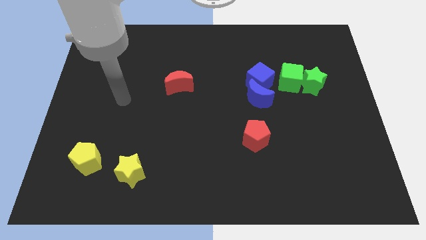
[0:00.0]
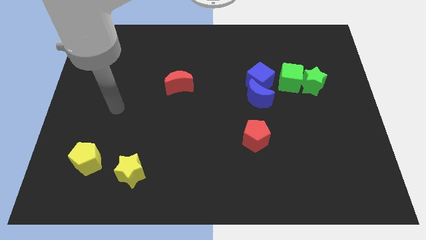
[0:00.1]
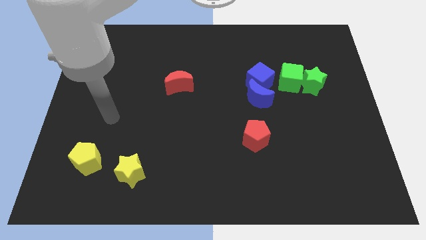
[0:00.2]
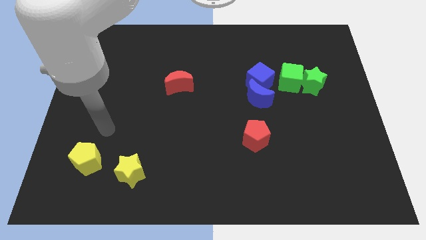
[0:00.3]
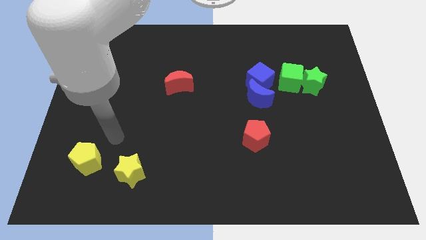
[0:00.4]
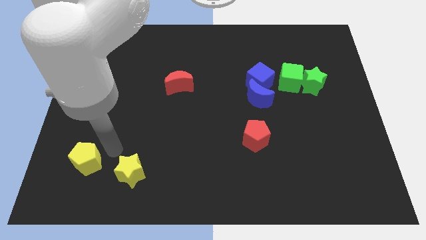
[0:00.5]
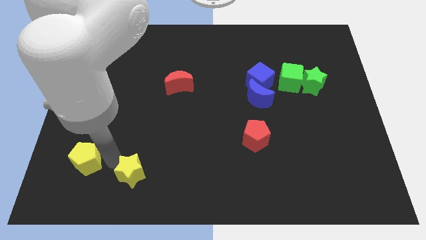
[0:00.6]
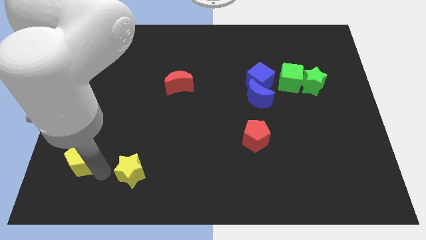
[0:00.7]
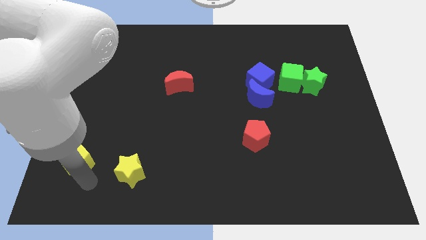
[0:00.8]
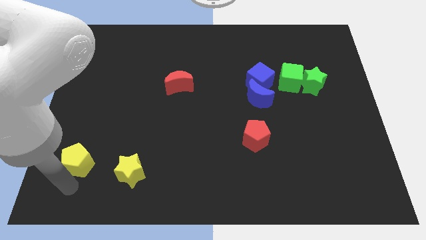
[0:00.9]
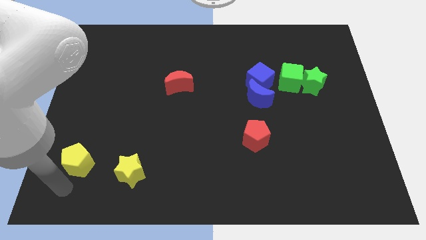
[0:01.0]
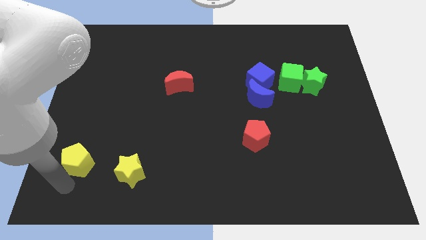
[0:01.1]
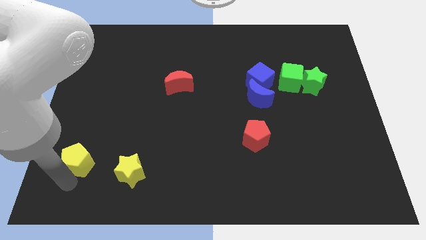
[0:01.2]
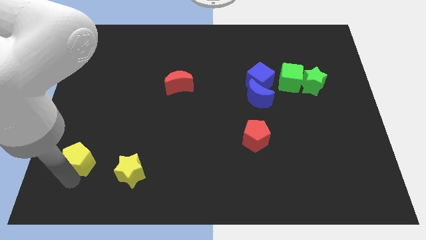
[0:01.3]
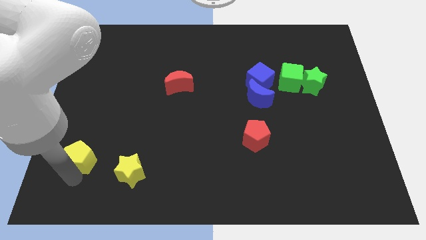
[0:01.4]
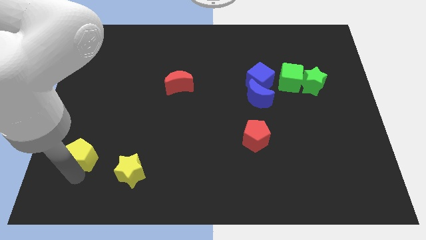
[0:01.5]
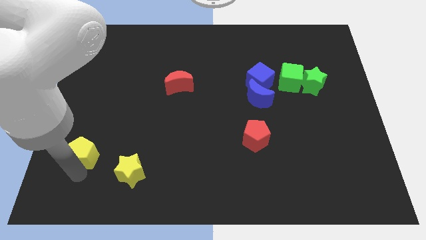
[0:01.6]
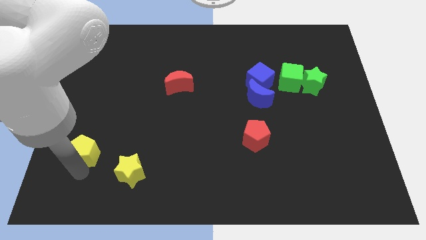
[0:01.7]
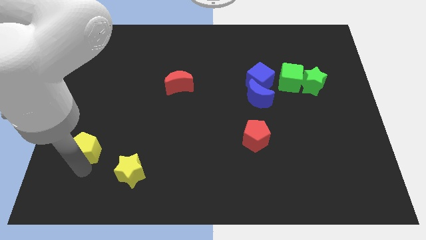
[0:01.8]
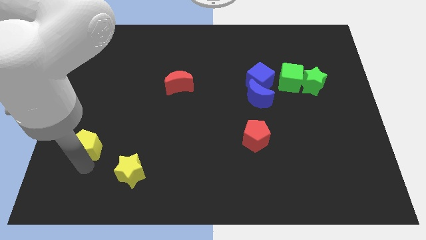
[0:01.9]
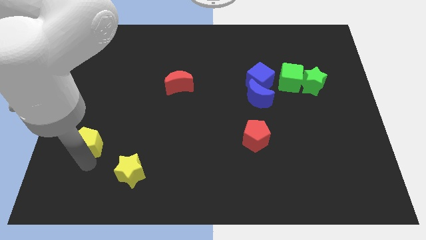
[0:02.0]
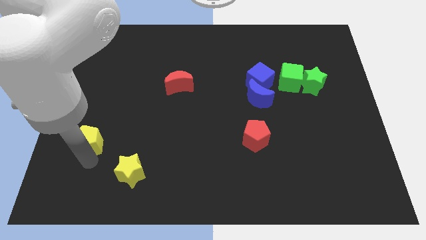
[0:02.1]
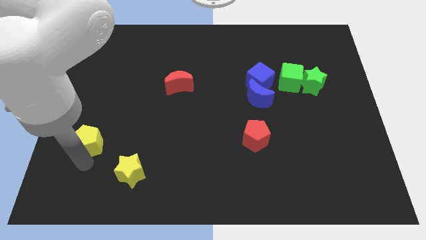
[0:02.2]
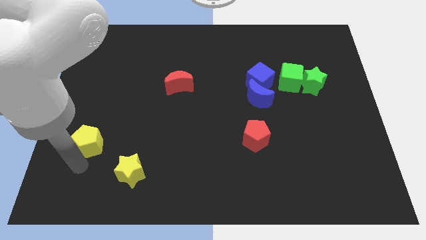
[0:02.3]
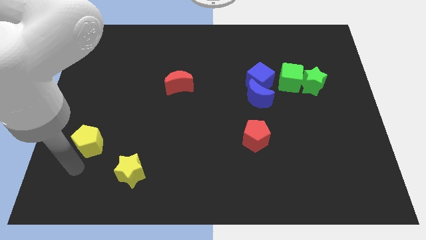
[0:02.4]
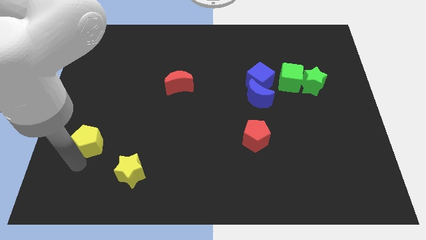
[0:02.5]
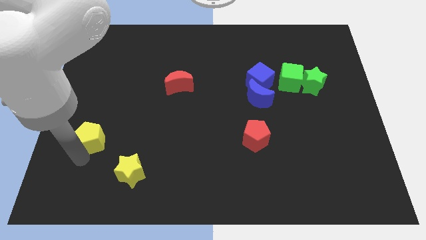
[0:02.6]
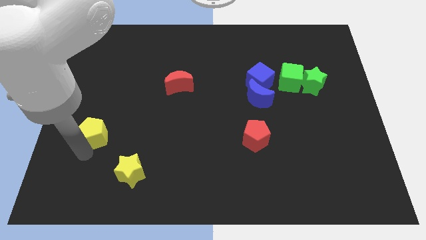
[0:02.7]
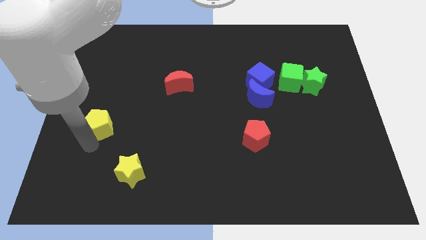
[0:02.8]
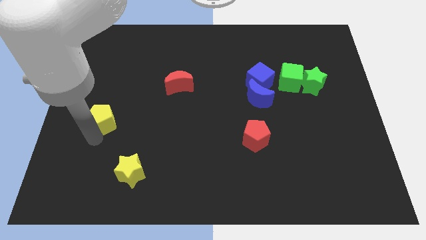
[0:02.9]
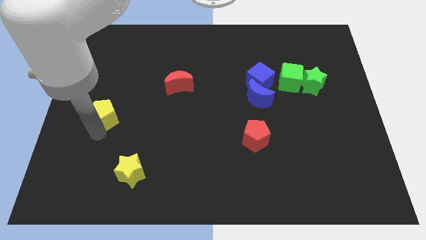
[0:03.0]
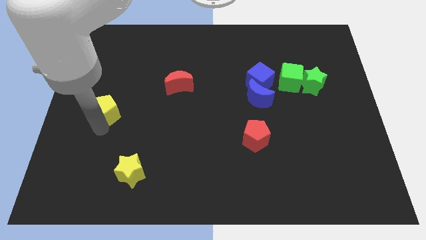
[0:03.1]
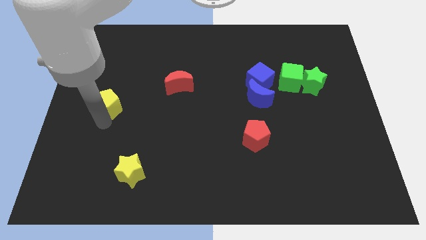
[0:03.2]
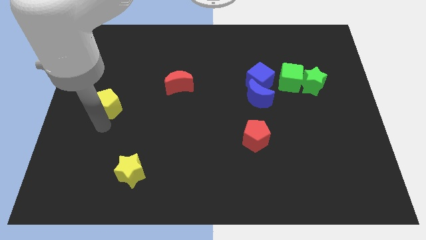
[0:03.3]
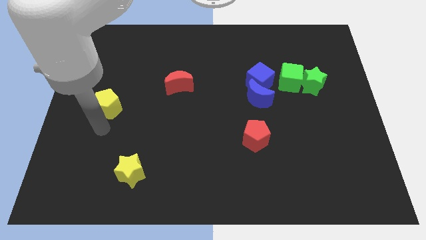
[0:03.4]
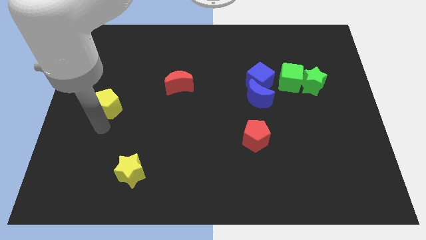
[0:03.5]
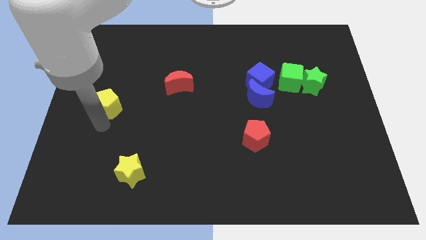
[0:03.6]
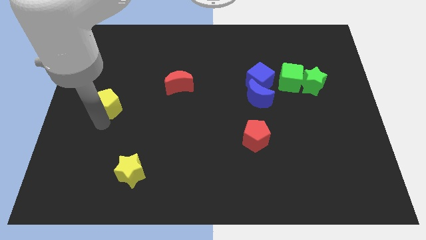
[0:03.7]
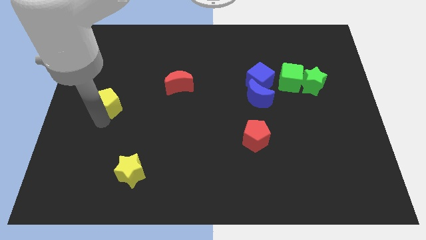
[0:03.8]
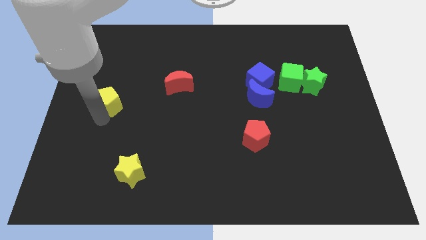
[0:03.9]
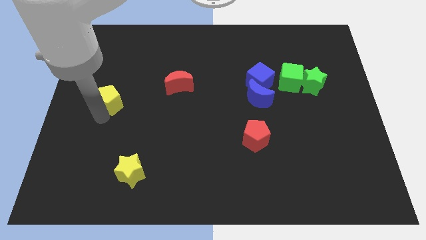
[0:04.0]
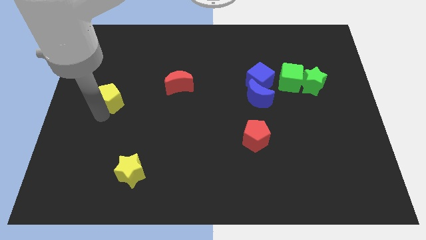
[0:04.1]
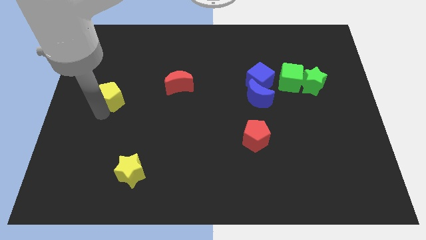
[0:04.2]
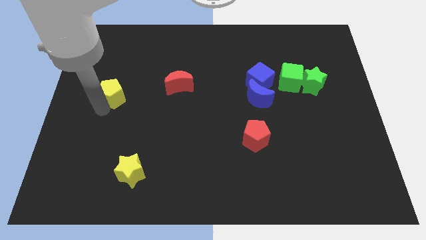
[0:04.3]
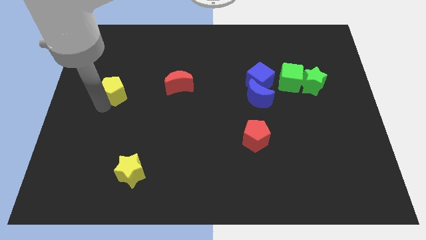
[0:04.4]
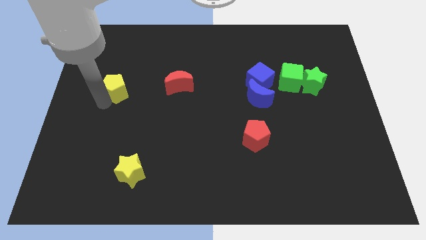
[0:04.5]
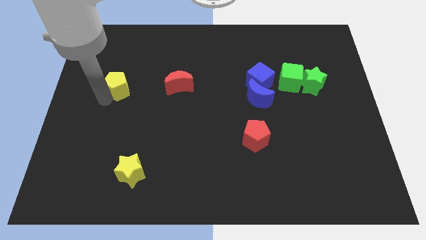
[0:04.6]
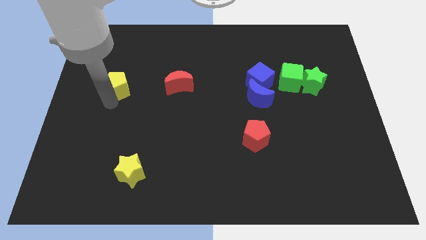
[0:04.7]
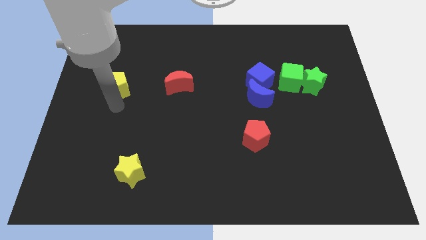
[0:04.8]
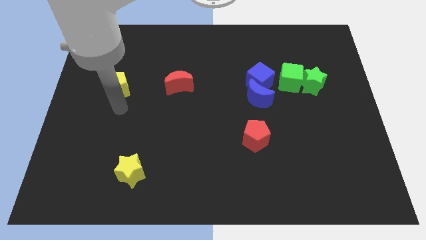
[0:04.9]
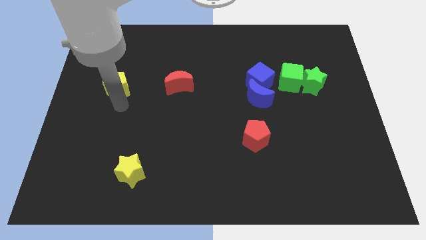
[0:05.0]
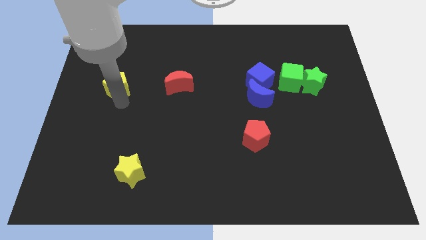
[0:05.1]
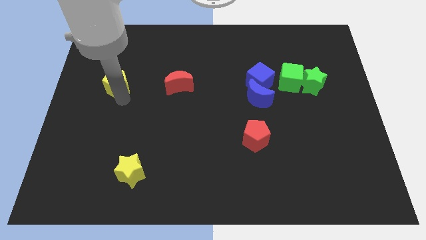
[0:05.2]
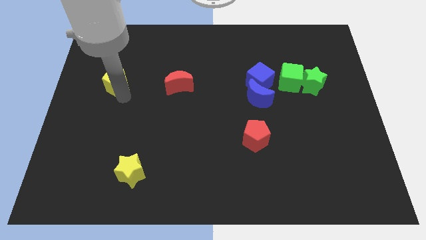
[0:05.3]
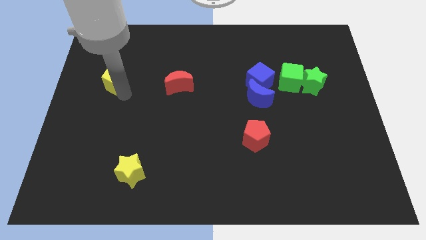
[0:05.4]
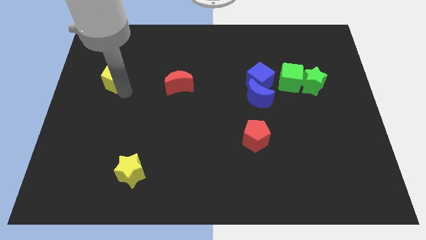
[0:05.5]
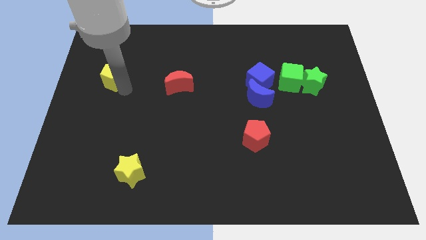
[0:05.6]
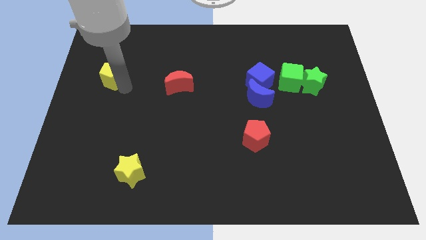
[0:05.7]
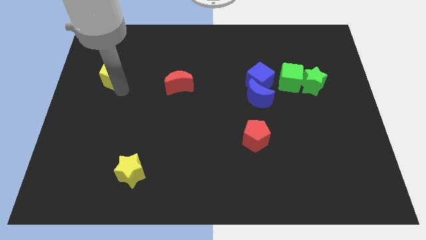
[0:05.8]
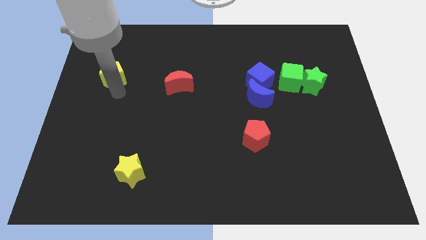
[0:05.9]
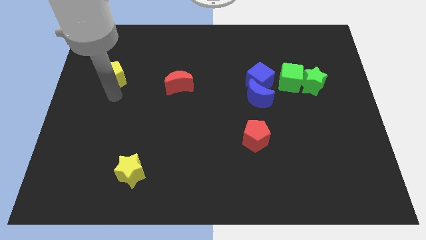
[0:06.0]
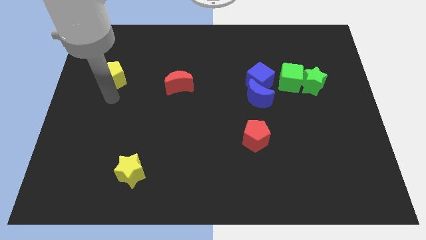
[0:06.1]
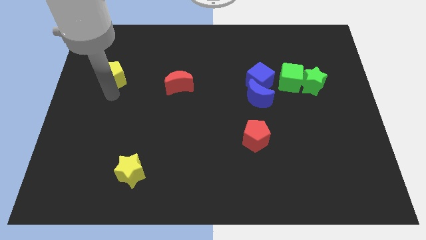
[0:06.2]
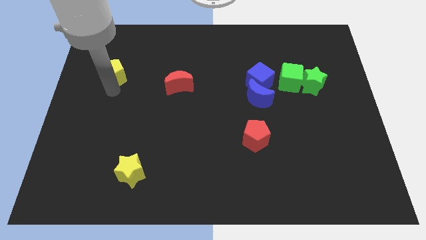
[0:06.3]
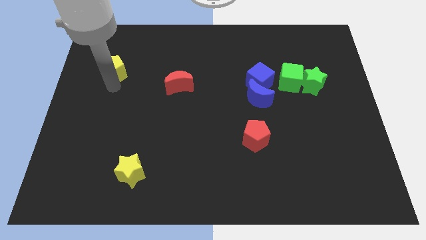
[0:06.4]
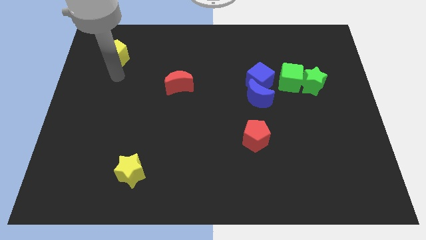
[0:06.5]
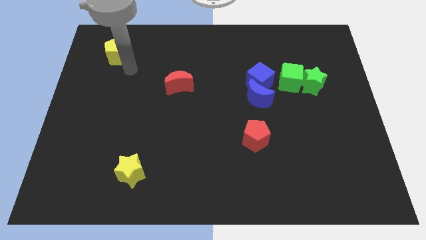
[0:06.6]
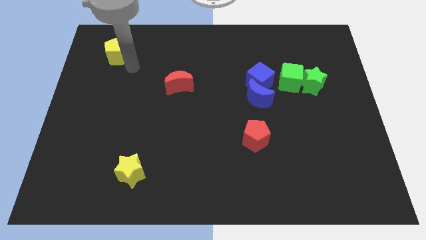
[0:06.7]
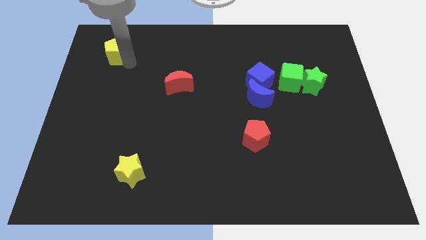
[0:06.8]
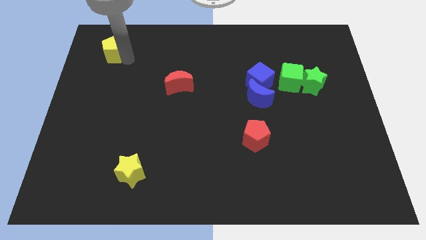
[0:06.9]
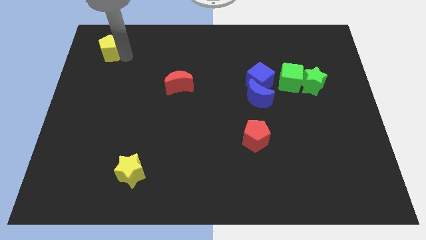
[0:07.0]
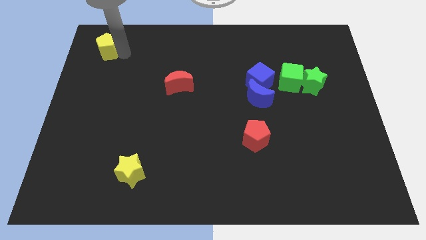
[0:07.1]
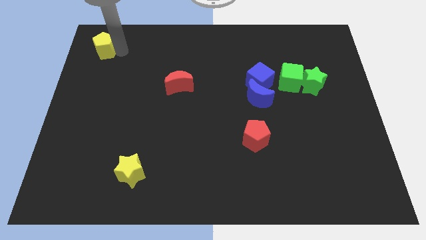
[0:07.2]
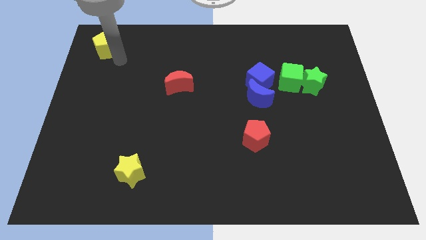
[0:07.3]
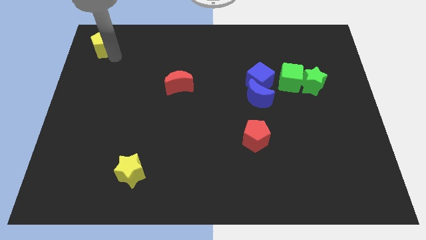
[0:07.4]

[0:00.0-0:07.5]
put the yellow pentagon to the top left corner
